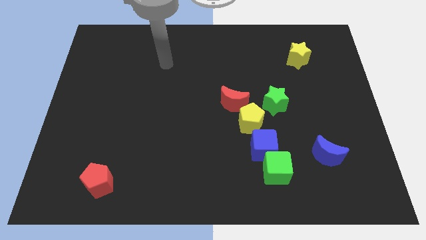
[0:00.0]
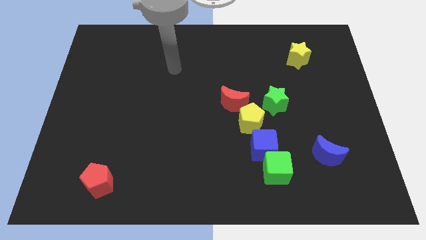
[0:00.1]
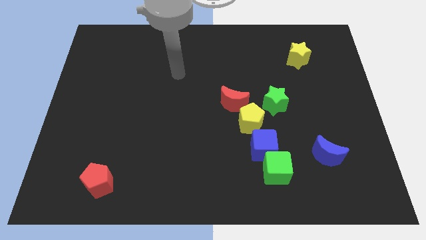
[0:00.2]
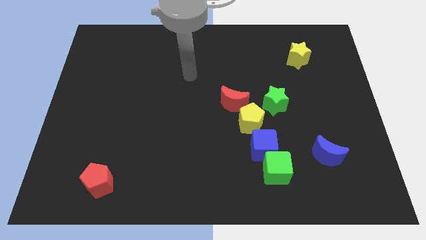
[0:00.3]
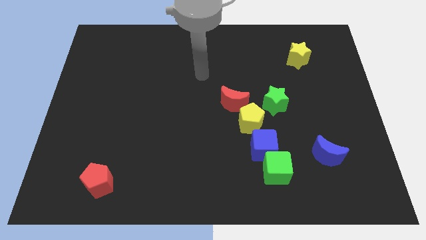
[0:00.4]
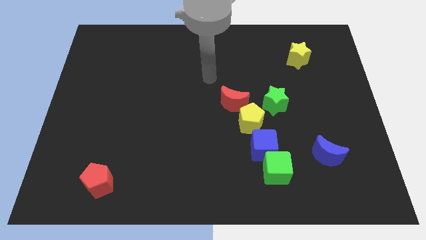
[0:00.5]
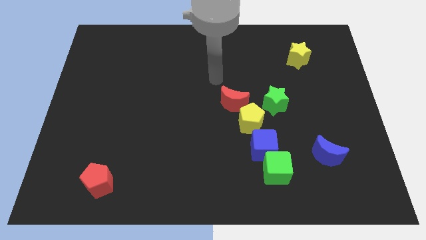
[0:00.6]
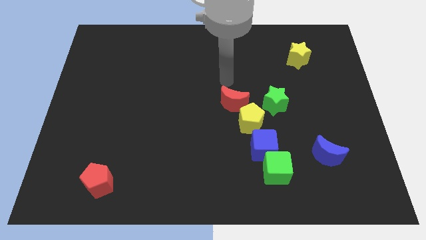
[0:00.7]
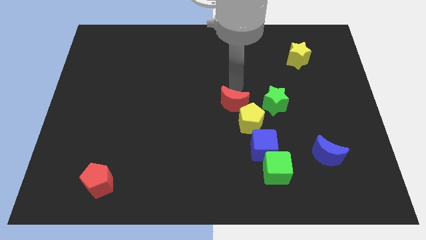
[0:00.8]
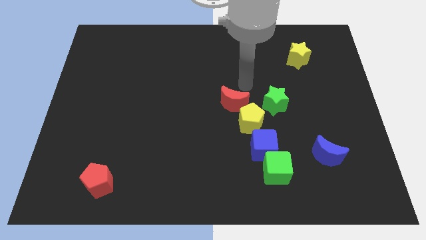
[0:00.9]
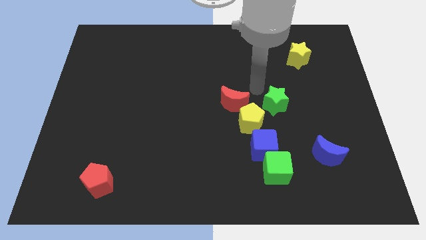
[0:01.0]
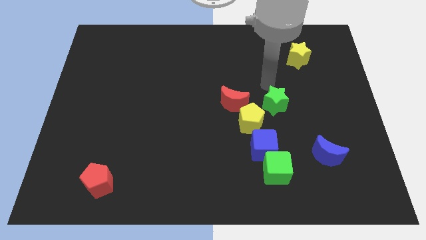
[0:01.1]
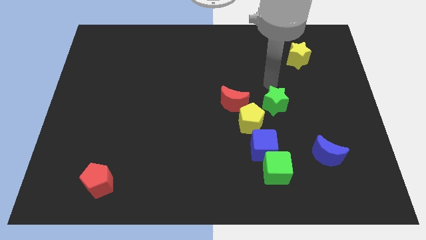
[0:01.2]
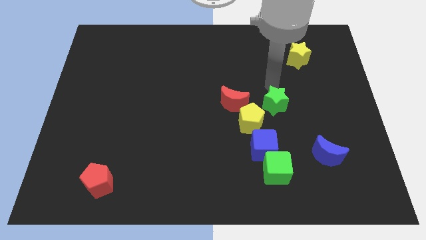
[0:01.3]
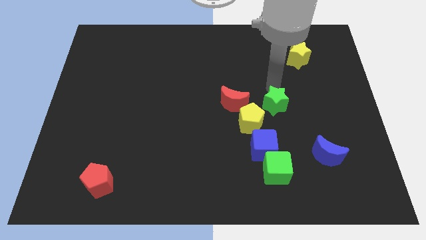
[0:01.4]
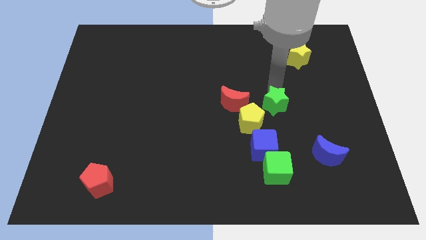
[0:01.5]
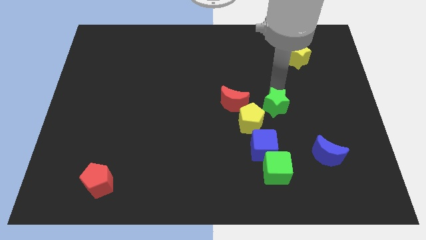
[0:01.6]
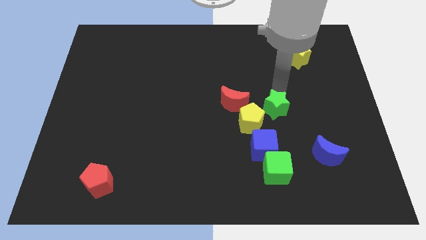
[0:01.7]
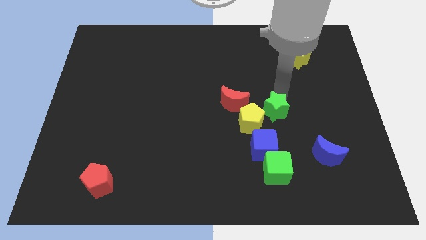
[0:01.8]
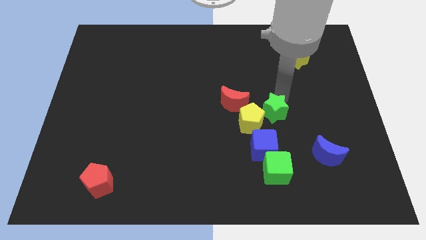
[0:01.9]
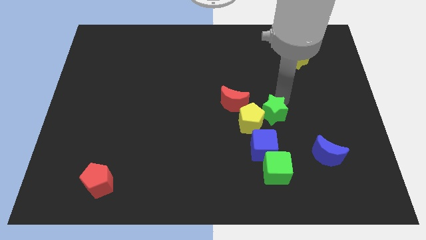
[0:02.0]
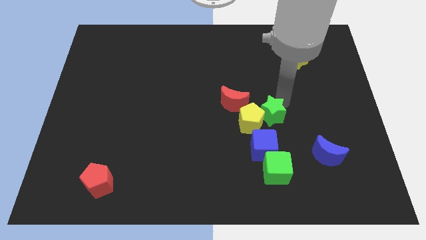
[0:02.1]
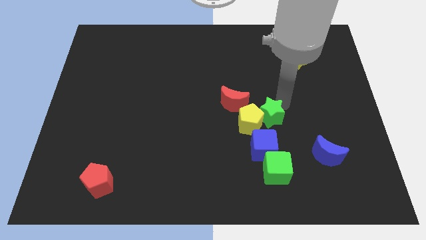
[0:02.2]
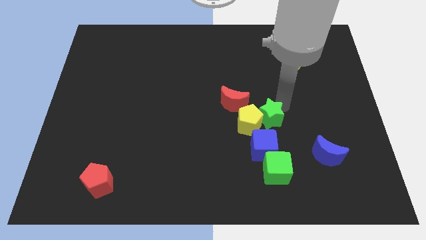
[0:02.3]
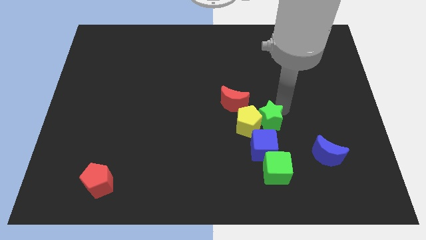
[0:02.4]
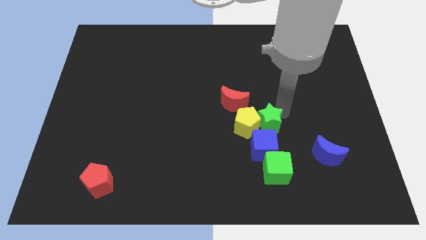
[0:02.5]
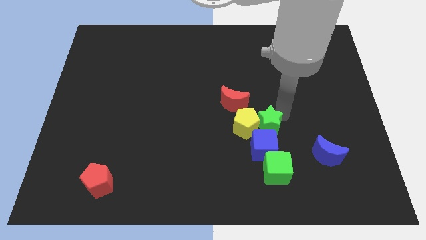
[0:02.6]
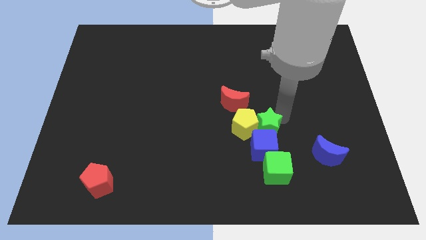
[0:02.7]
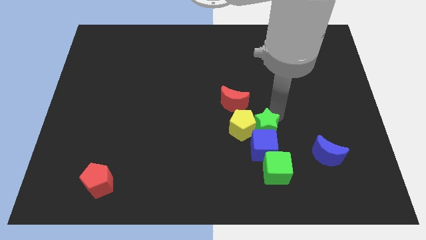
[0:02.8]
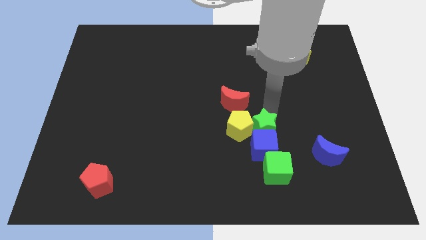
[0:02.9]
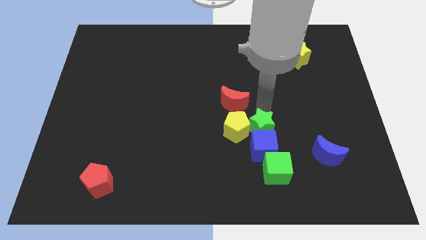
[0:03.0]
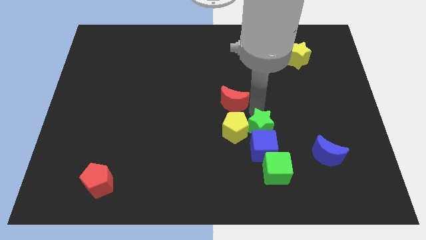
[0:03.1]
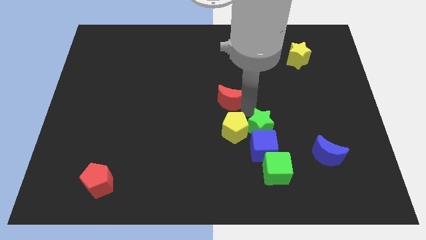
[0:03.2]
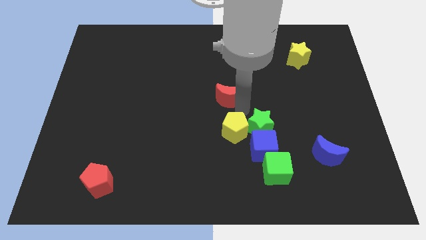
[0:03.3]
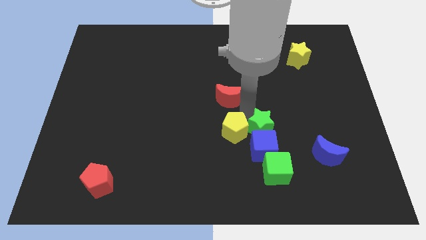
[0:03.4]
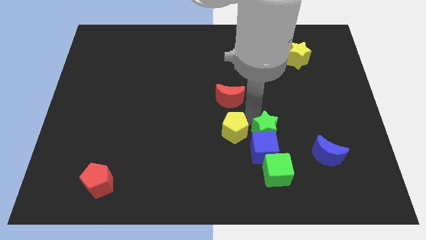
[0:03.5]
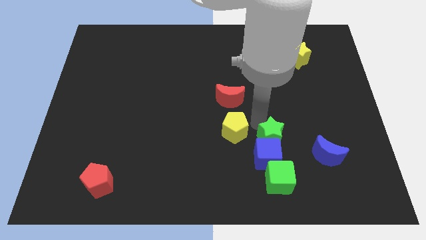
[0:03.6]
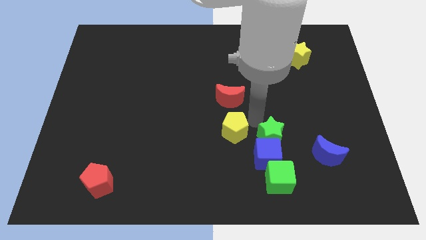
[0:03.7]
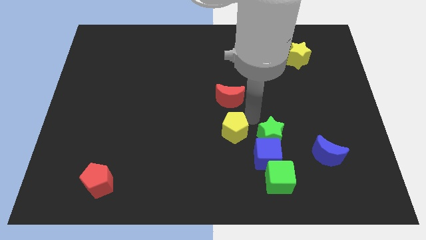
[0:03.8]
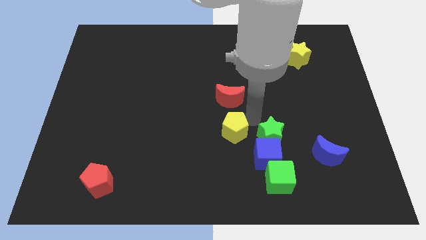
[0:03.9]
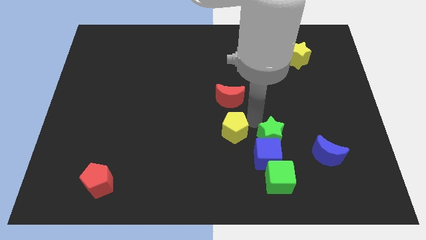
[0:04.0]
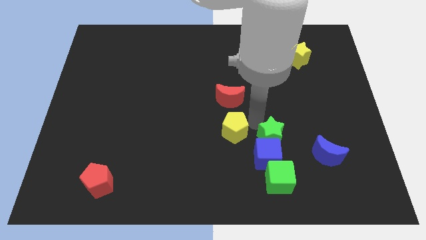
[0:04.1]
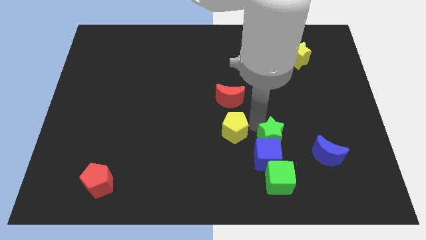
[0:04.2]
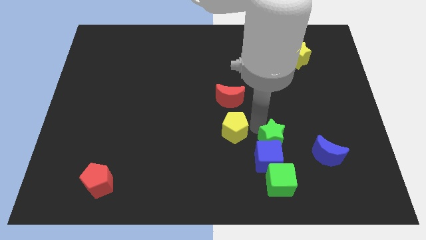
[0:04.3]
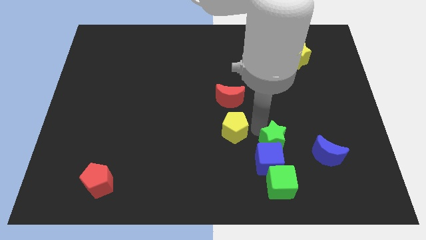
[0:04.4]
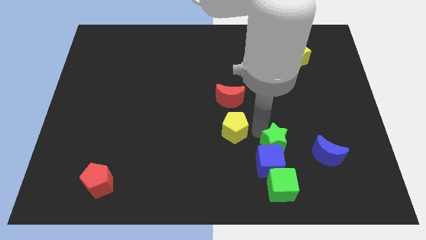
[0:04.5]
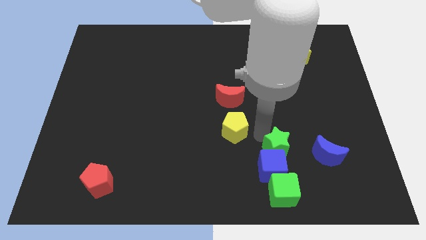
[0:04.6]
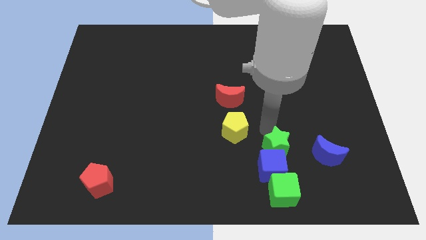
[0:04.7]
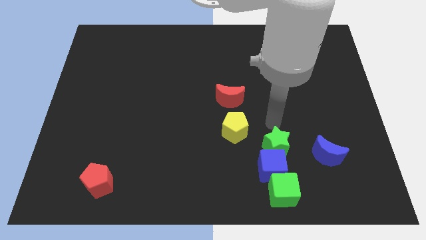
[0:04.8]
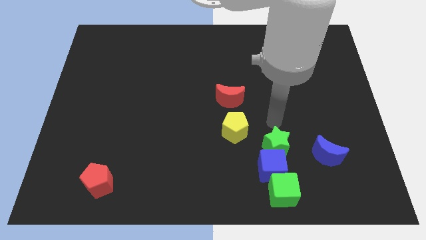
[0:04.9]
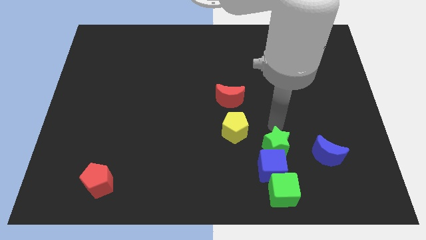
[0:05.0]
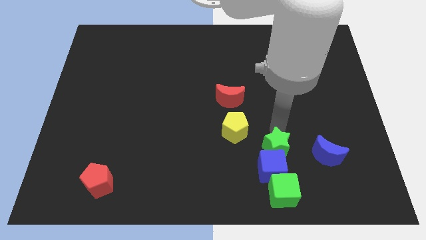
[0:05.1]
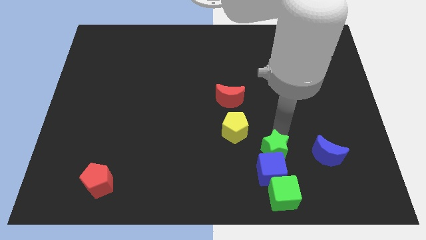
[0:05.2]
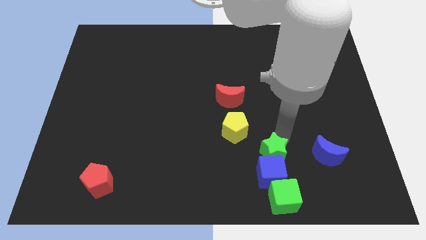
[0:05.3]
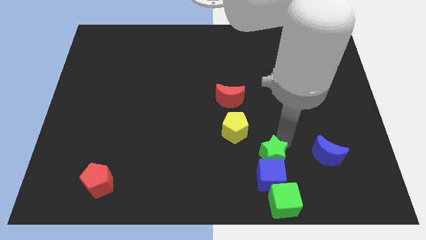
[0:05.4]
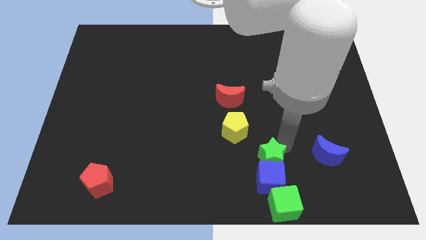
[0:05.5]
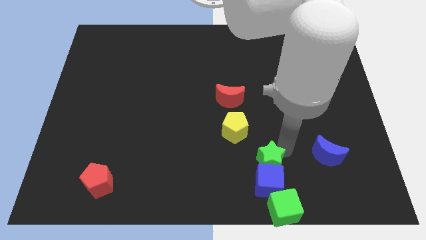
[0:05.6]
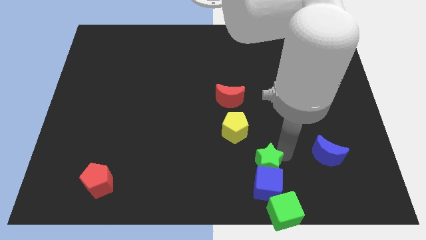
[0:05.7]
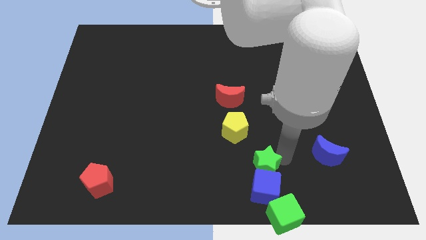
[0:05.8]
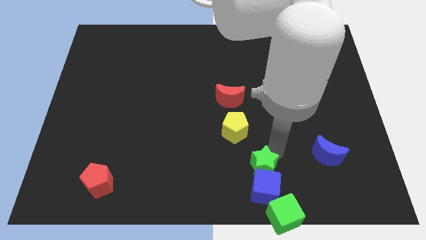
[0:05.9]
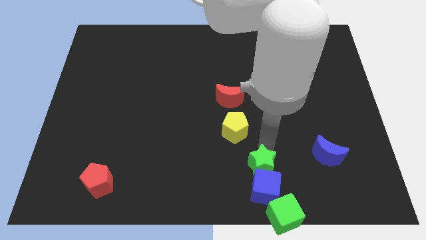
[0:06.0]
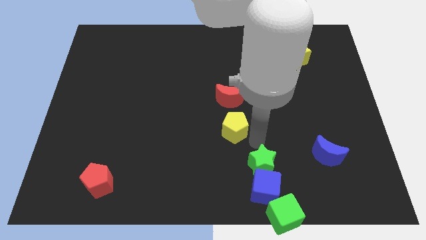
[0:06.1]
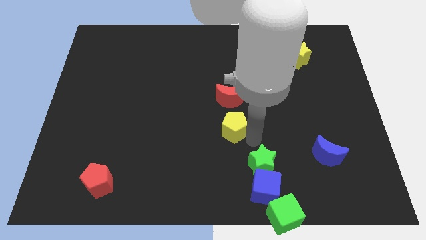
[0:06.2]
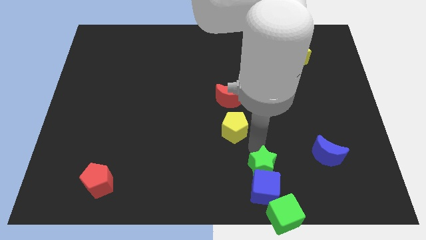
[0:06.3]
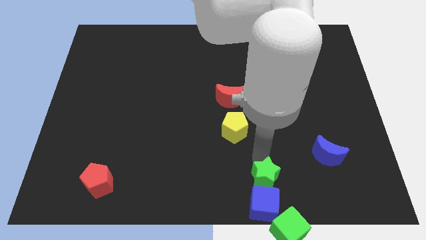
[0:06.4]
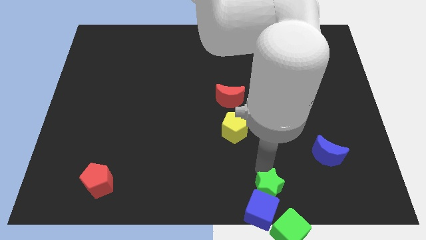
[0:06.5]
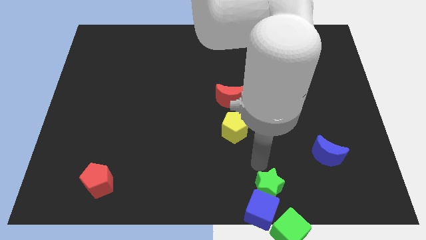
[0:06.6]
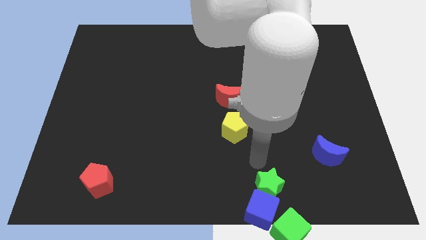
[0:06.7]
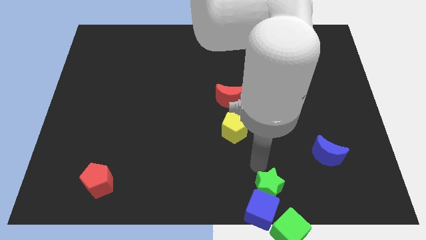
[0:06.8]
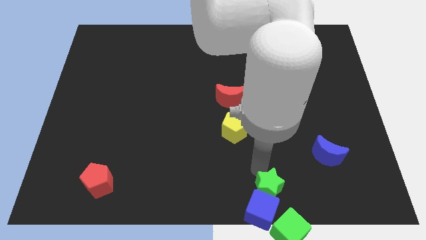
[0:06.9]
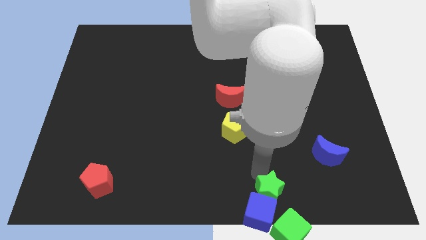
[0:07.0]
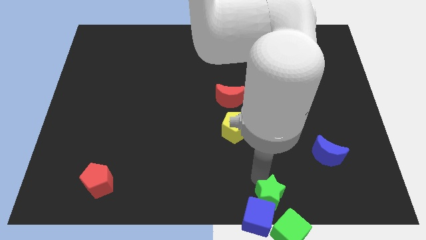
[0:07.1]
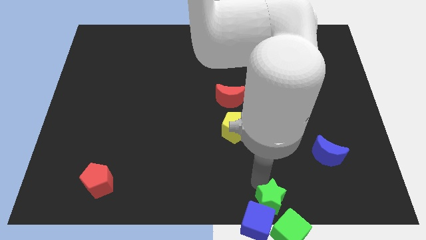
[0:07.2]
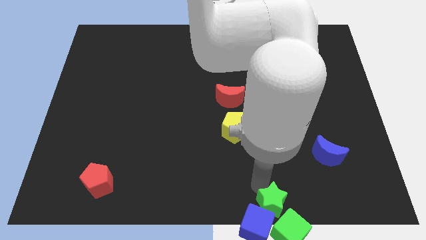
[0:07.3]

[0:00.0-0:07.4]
put the green star towards the green cube

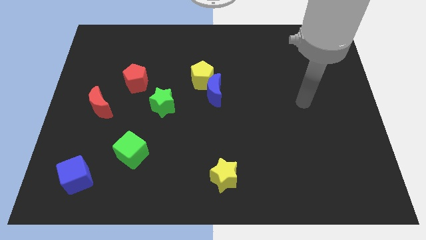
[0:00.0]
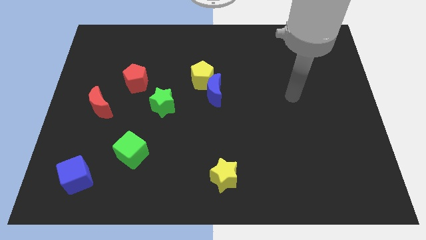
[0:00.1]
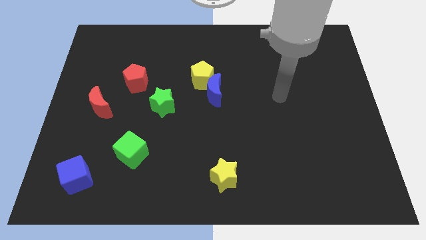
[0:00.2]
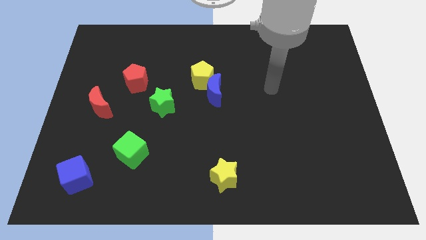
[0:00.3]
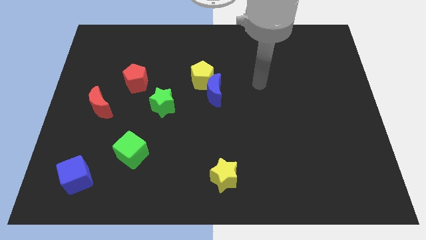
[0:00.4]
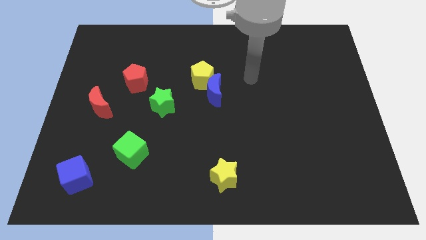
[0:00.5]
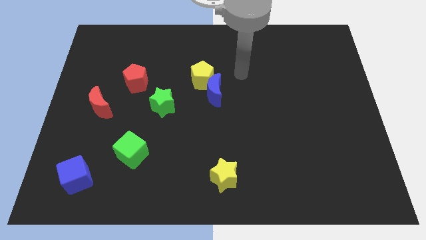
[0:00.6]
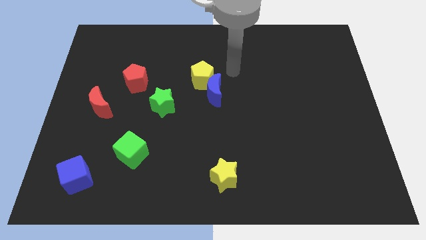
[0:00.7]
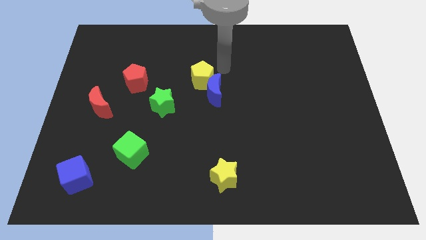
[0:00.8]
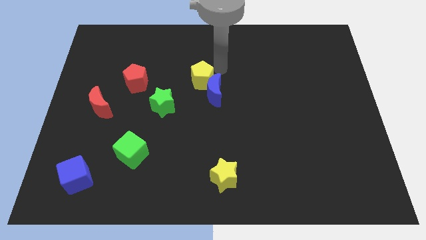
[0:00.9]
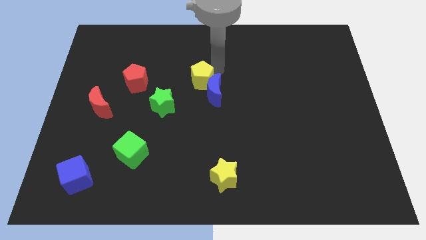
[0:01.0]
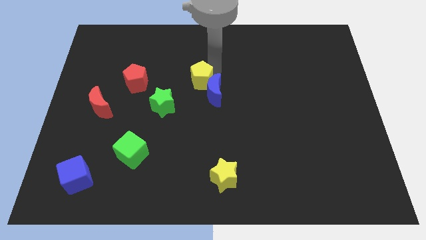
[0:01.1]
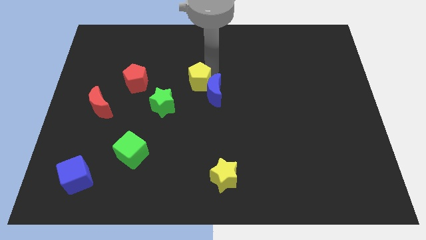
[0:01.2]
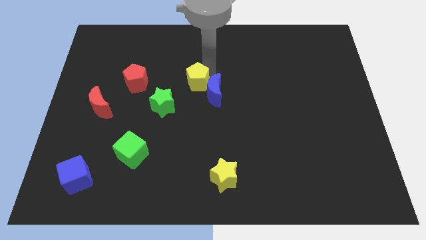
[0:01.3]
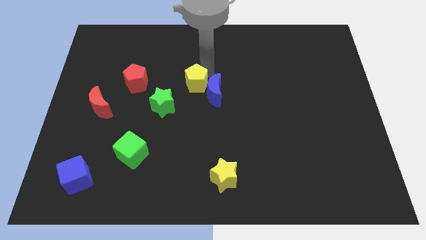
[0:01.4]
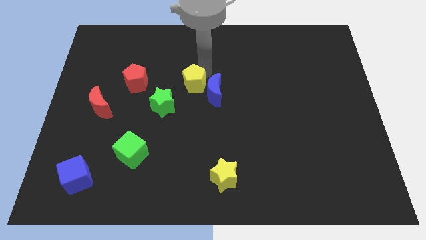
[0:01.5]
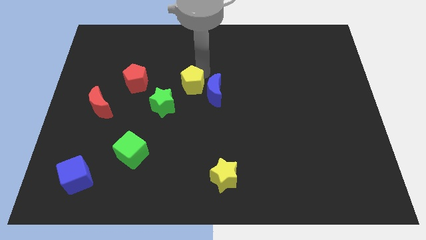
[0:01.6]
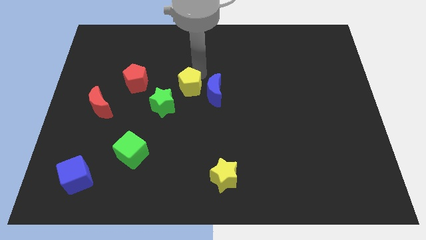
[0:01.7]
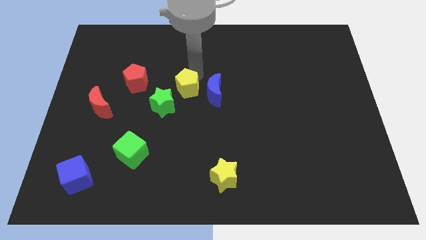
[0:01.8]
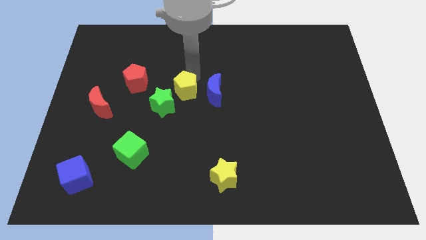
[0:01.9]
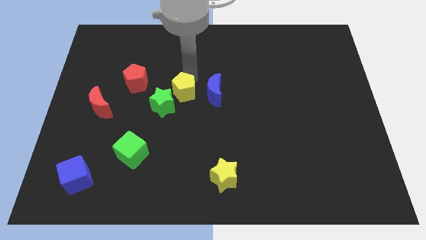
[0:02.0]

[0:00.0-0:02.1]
slide the yellow pentagon towards the green star
